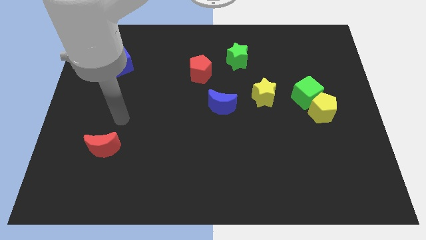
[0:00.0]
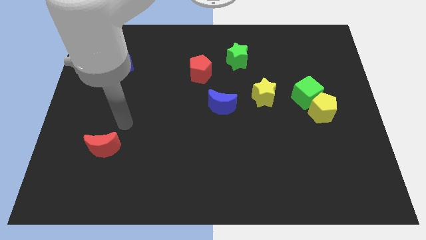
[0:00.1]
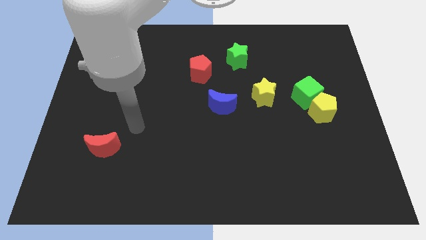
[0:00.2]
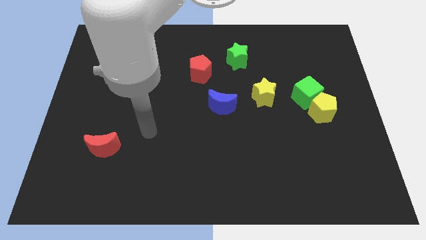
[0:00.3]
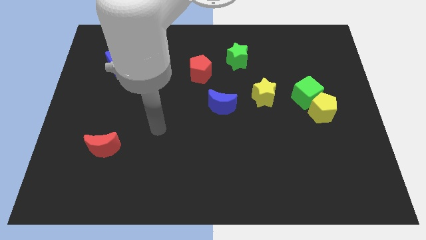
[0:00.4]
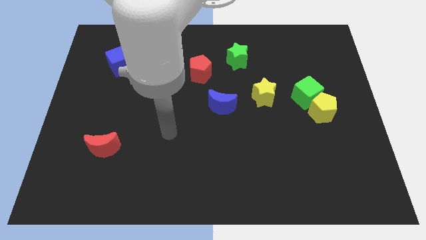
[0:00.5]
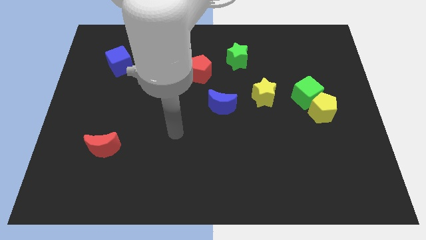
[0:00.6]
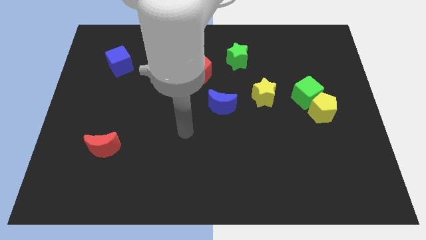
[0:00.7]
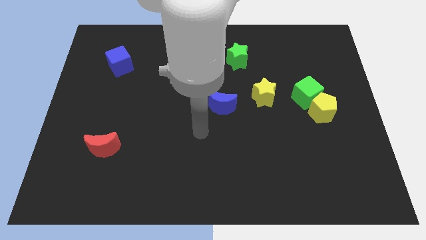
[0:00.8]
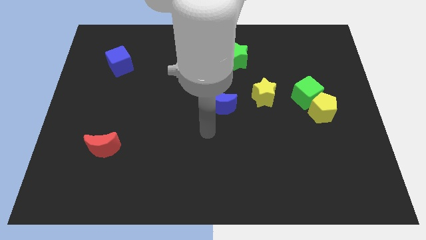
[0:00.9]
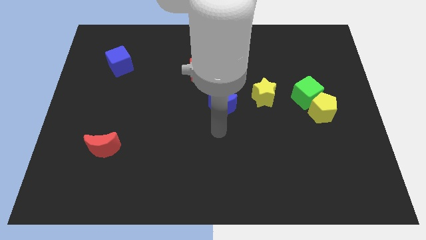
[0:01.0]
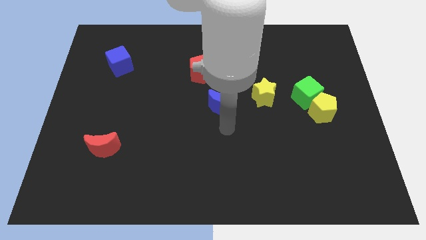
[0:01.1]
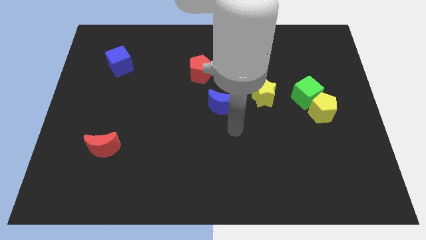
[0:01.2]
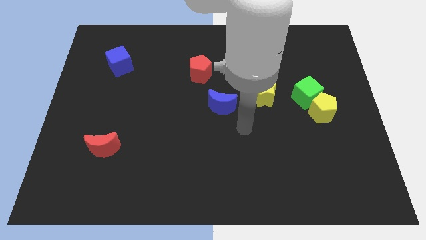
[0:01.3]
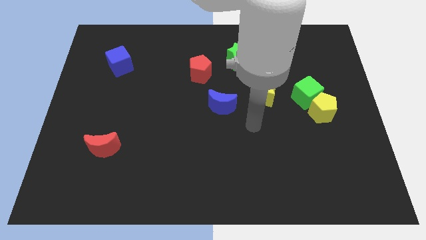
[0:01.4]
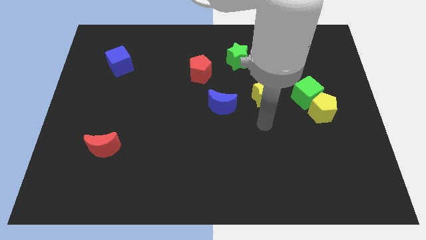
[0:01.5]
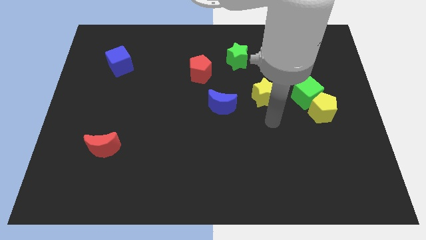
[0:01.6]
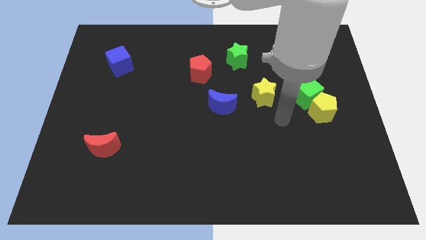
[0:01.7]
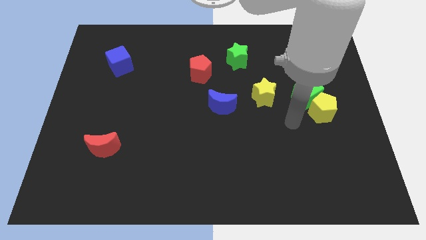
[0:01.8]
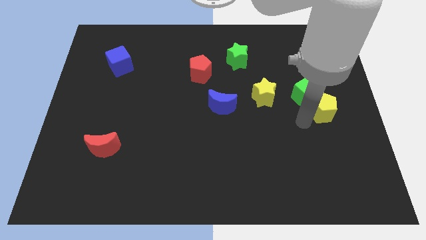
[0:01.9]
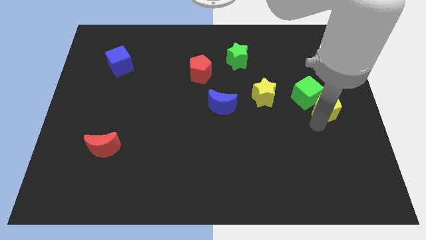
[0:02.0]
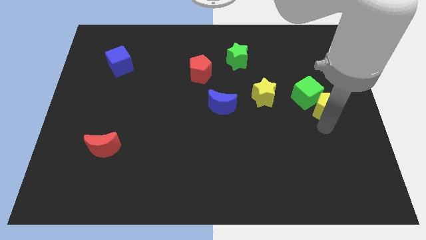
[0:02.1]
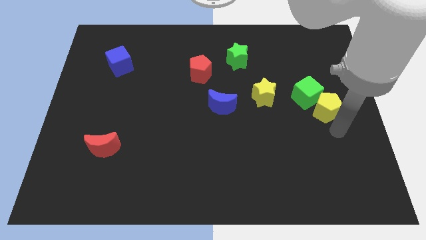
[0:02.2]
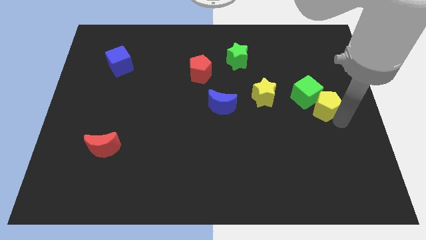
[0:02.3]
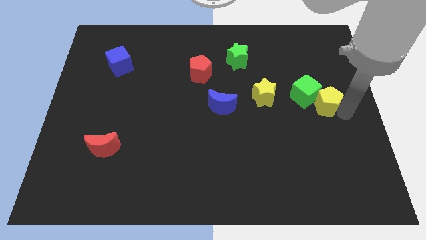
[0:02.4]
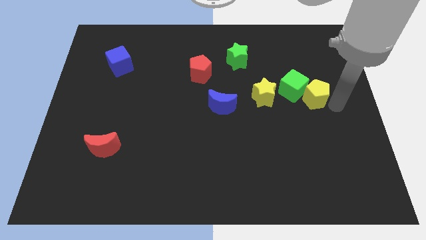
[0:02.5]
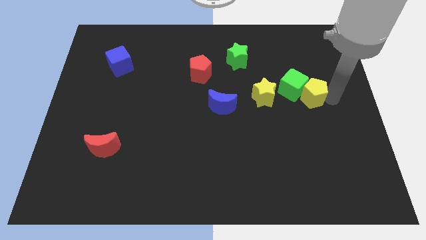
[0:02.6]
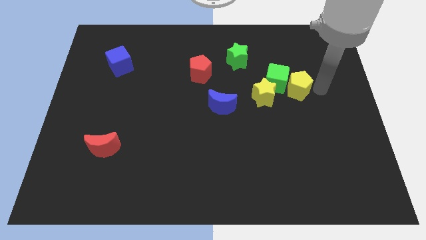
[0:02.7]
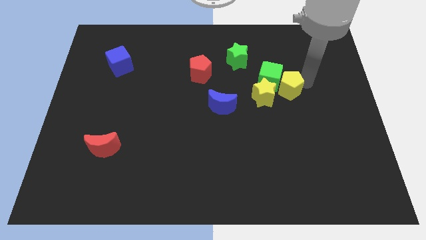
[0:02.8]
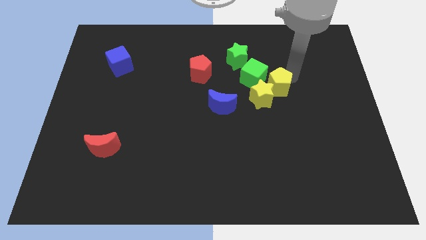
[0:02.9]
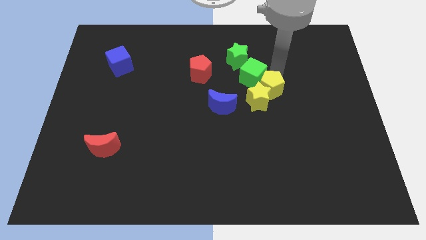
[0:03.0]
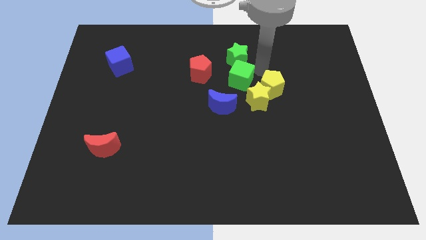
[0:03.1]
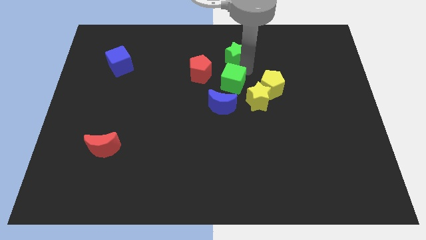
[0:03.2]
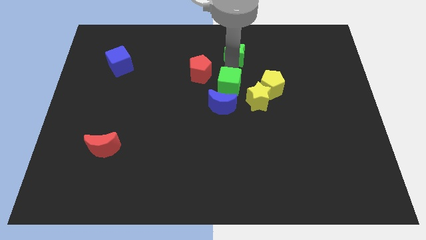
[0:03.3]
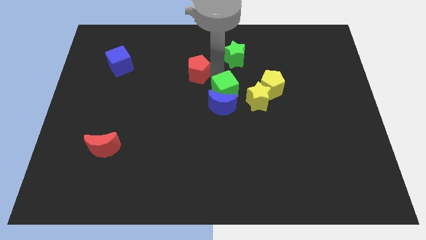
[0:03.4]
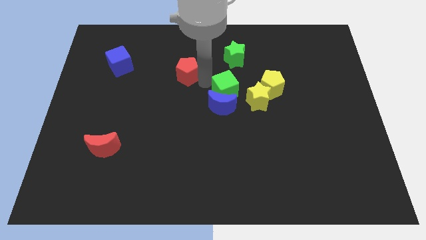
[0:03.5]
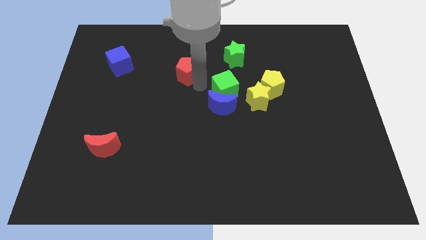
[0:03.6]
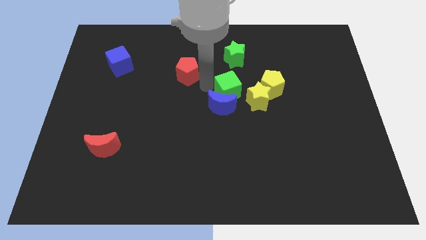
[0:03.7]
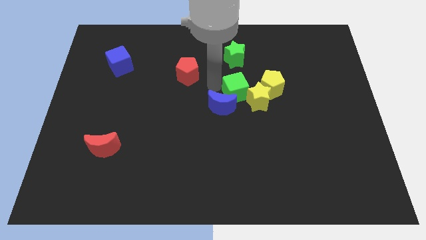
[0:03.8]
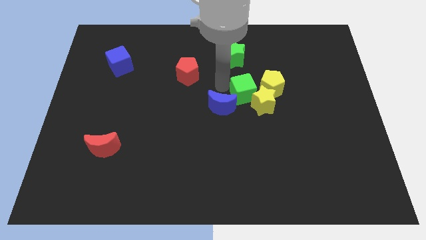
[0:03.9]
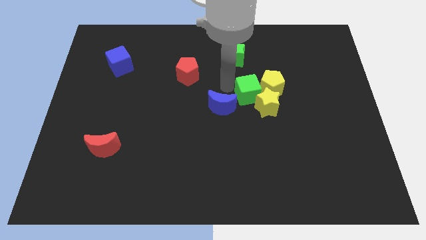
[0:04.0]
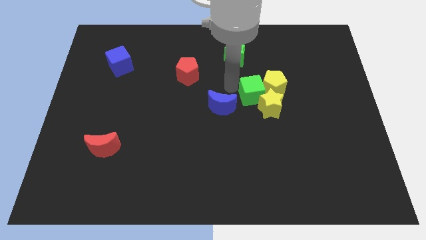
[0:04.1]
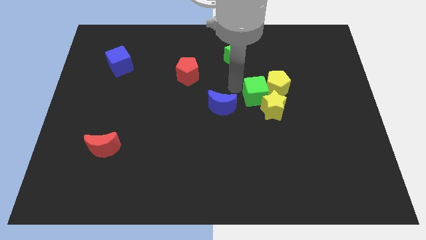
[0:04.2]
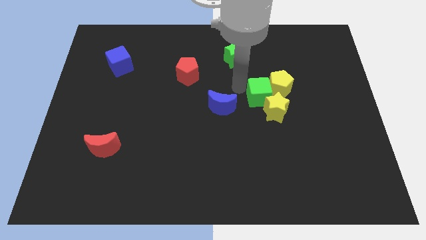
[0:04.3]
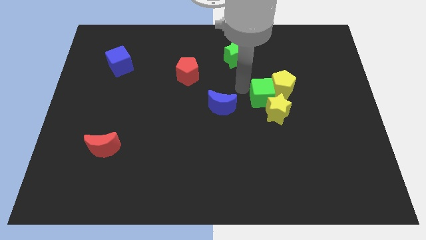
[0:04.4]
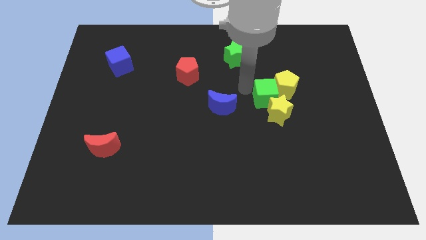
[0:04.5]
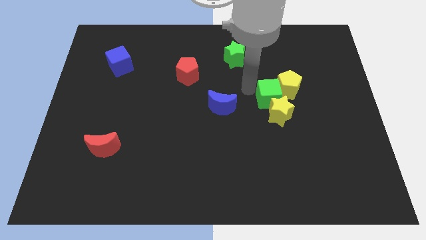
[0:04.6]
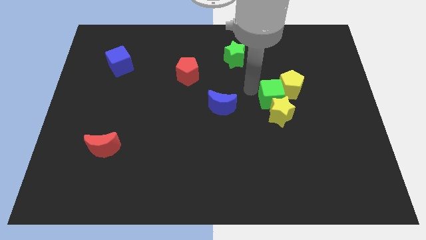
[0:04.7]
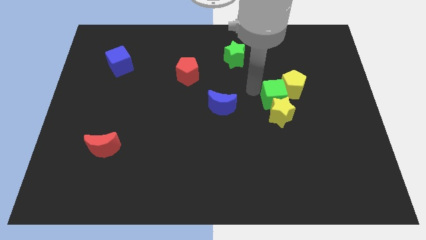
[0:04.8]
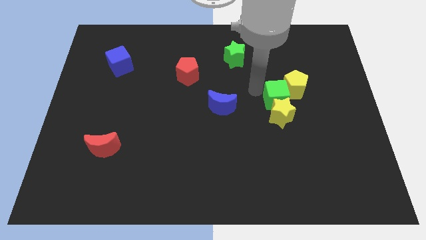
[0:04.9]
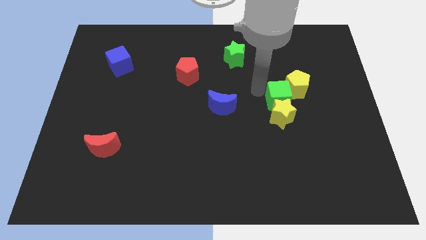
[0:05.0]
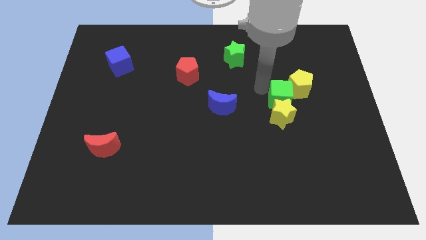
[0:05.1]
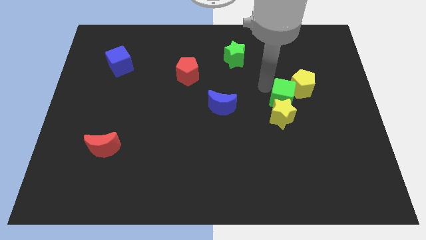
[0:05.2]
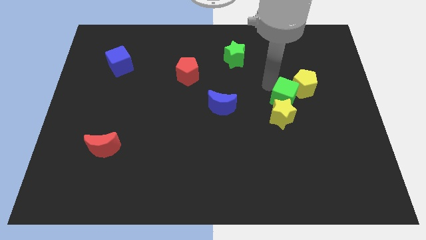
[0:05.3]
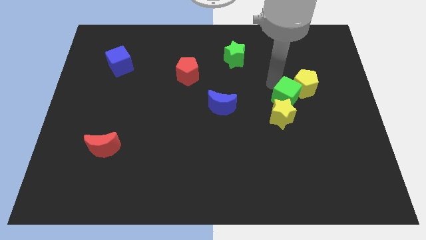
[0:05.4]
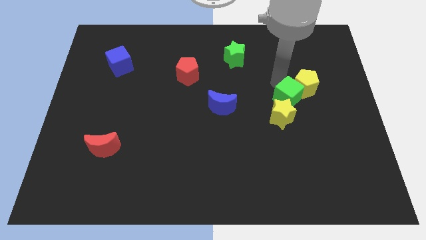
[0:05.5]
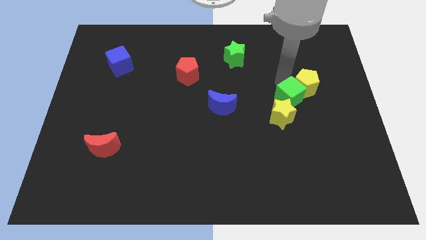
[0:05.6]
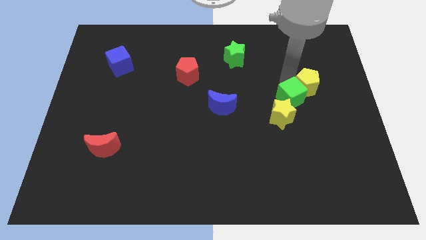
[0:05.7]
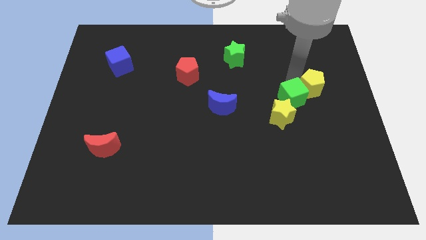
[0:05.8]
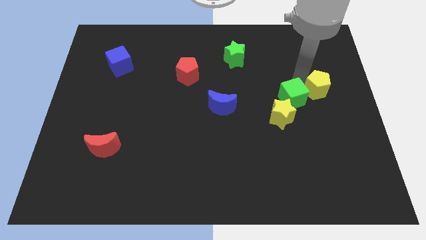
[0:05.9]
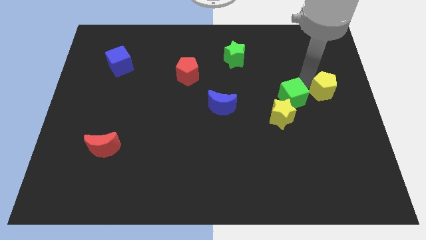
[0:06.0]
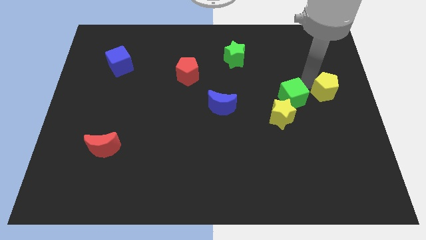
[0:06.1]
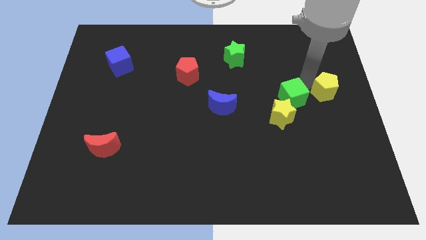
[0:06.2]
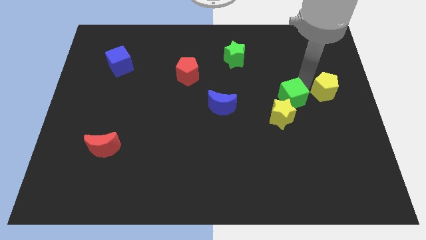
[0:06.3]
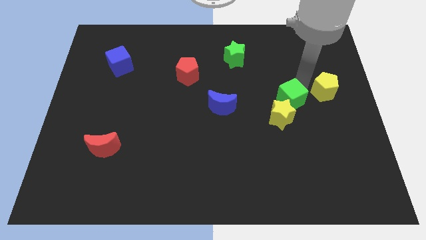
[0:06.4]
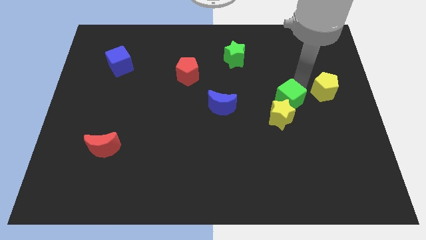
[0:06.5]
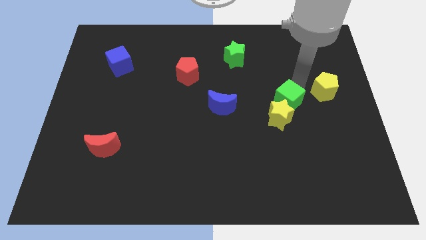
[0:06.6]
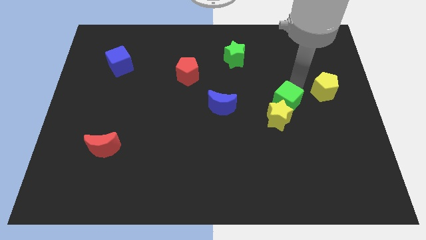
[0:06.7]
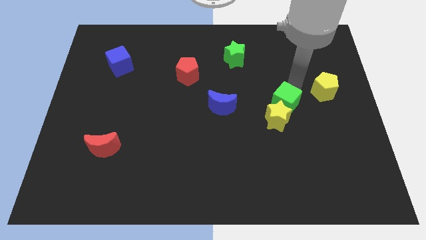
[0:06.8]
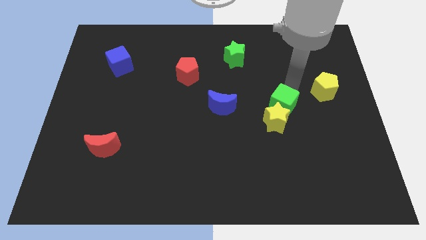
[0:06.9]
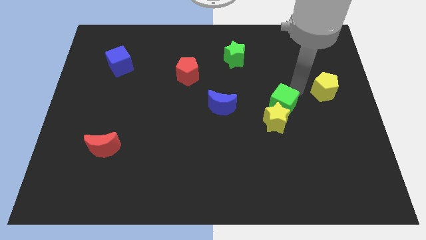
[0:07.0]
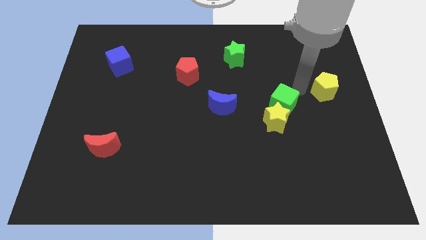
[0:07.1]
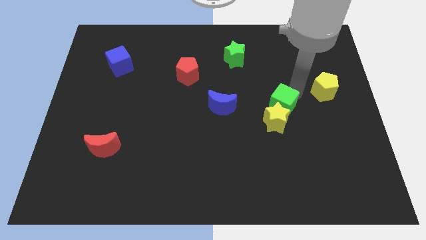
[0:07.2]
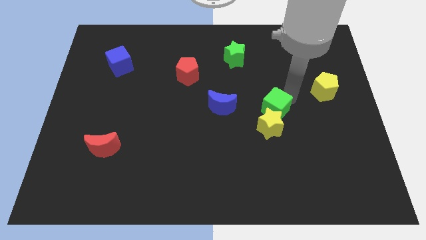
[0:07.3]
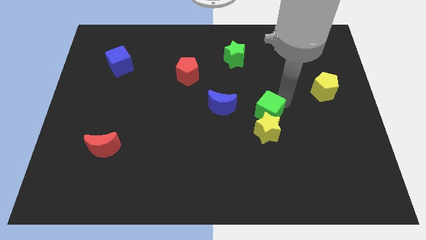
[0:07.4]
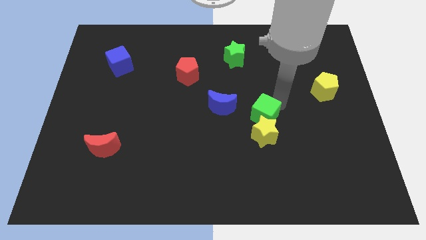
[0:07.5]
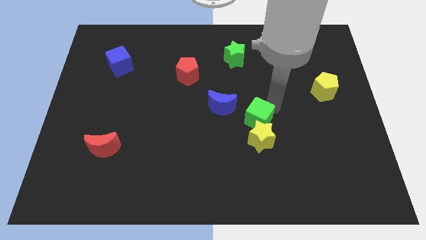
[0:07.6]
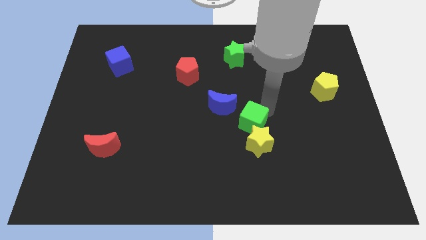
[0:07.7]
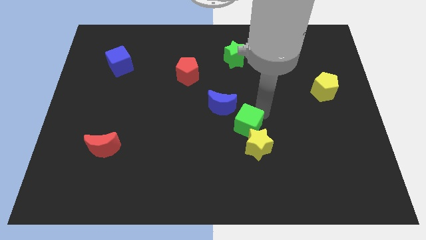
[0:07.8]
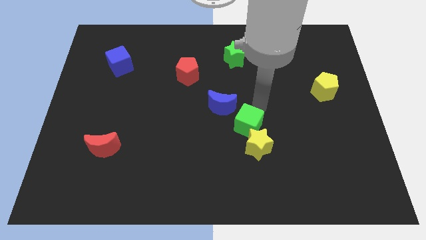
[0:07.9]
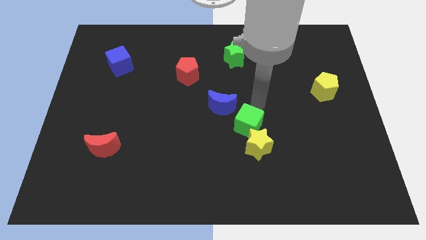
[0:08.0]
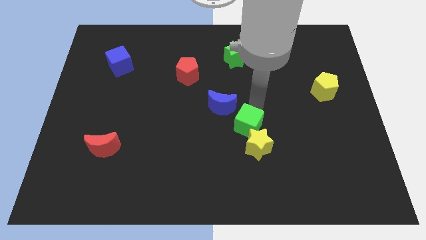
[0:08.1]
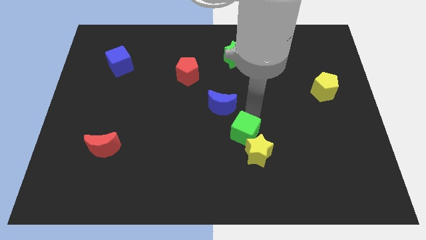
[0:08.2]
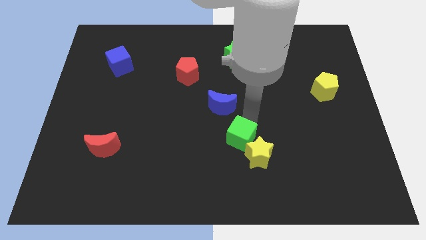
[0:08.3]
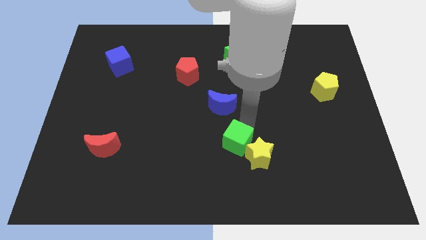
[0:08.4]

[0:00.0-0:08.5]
move the green cube diagonally downwards and left
